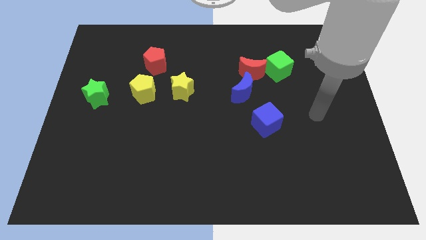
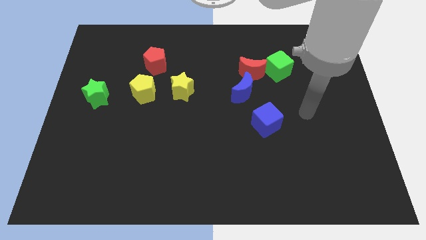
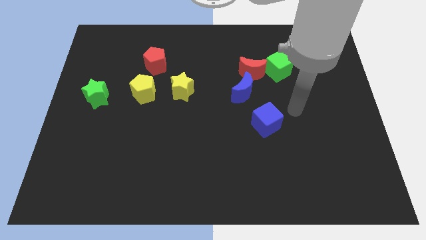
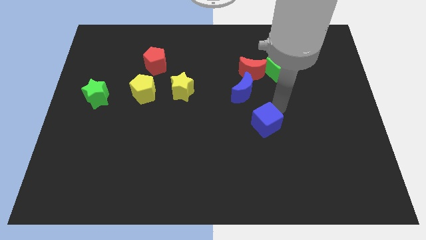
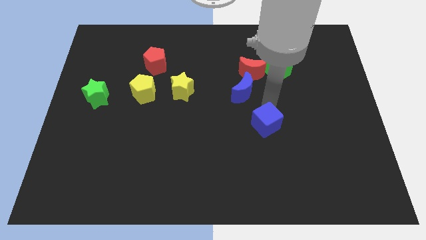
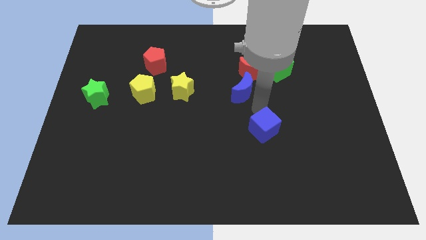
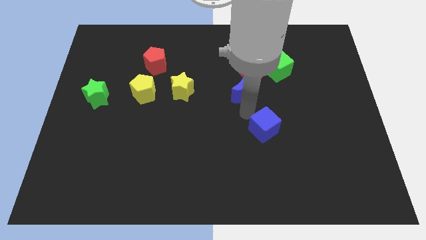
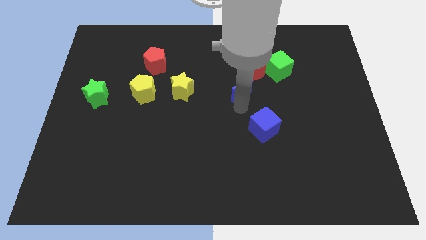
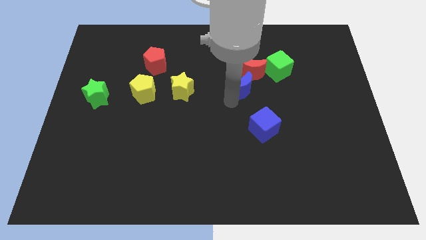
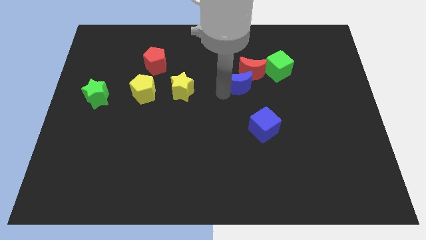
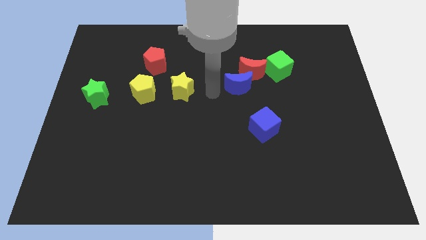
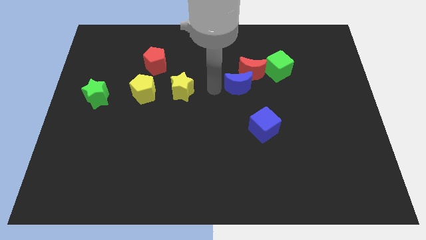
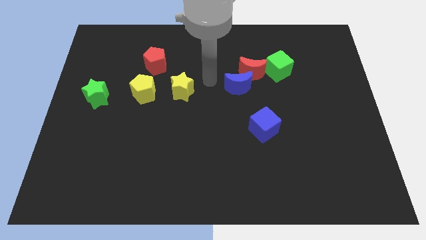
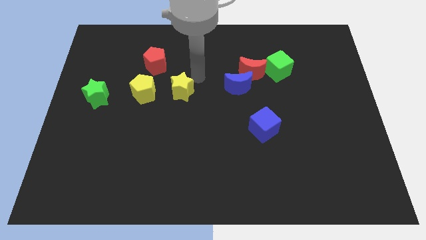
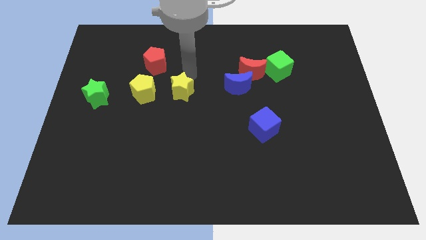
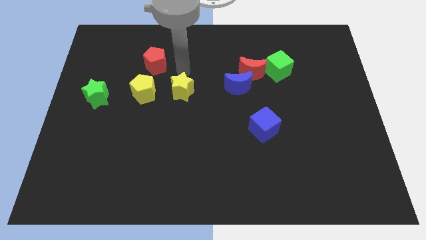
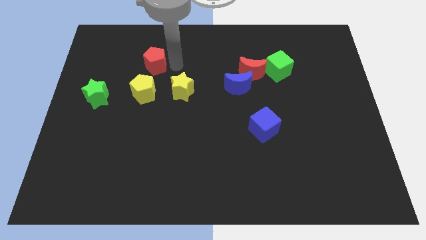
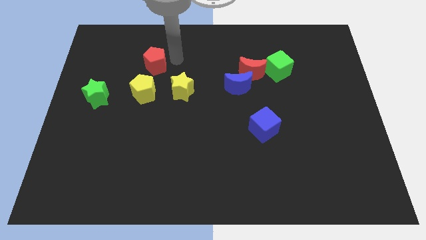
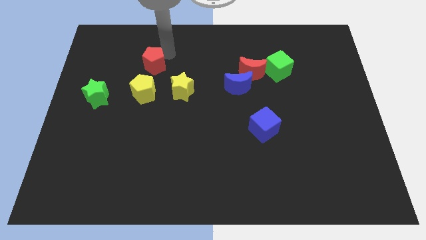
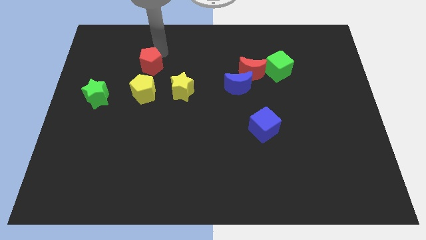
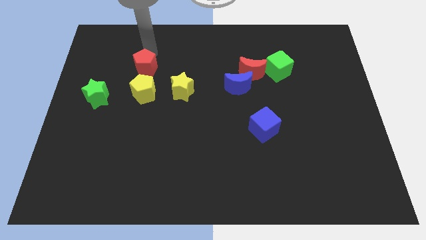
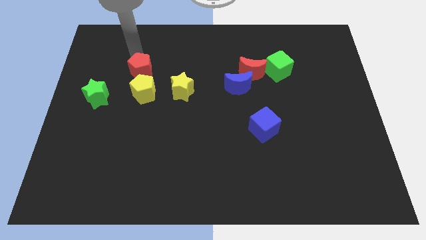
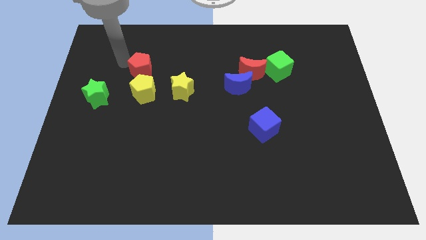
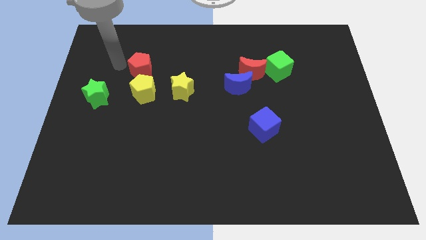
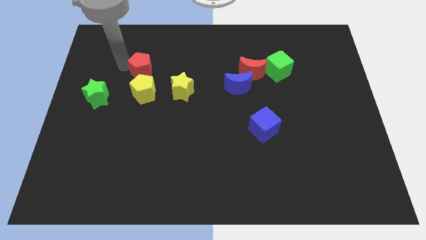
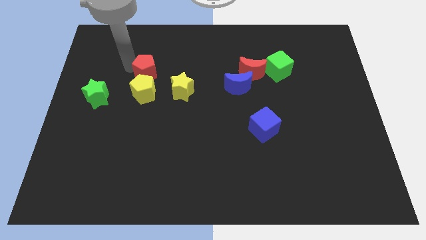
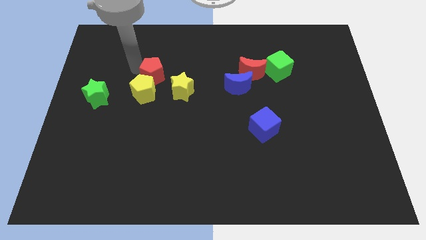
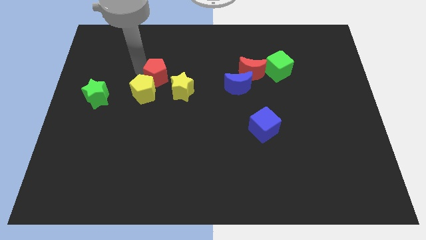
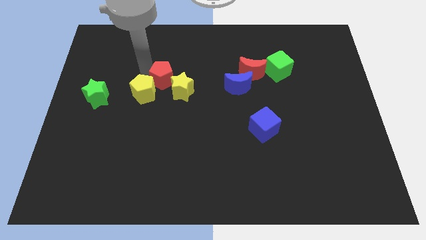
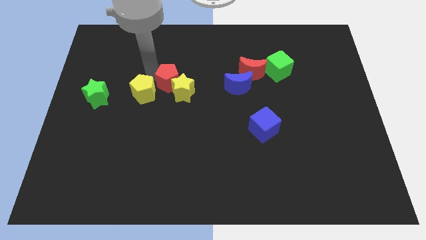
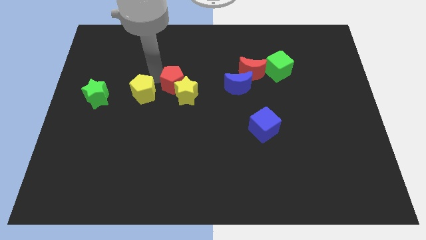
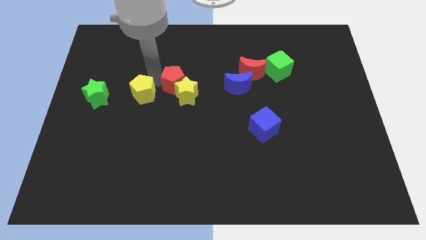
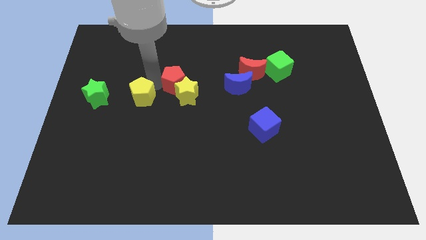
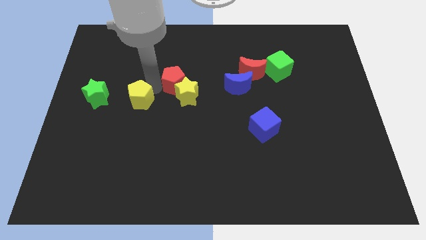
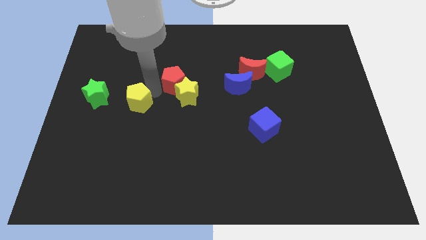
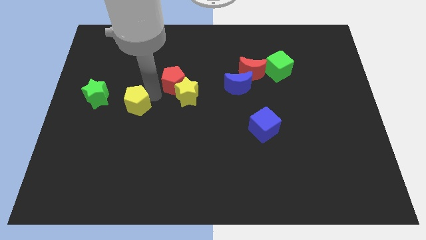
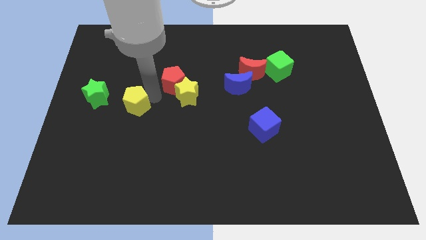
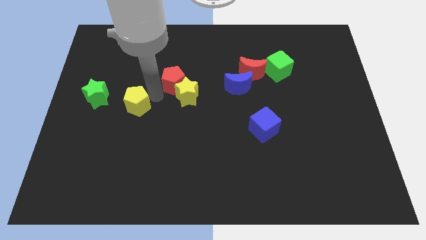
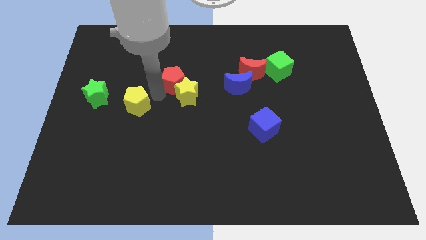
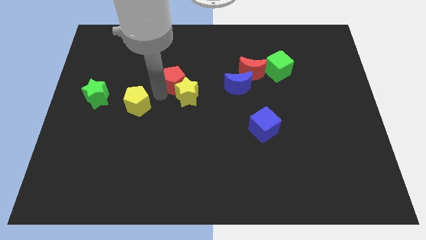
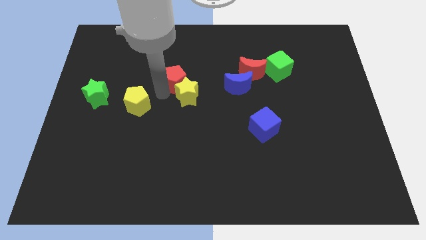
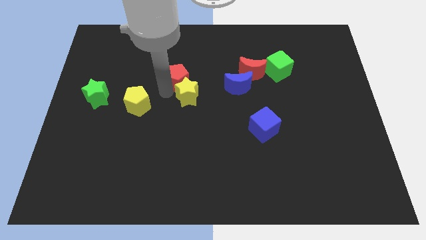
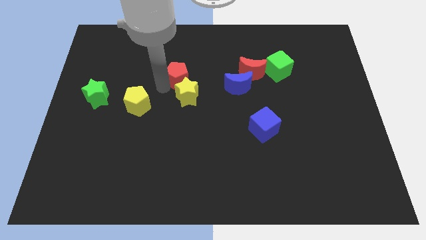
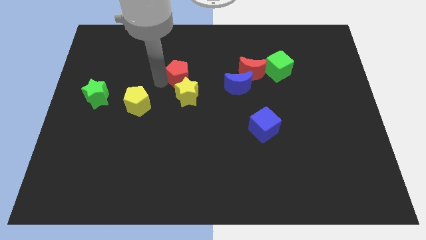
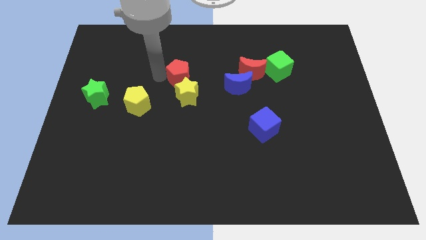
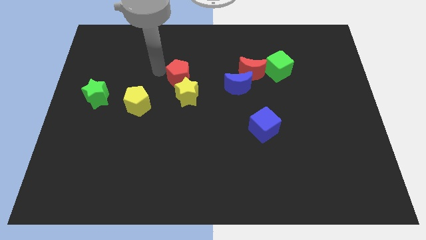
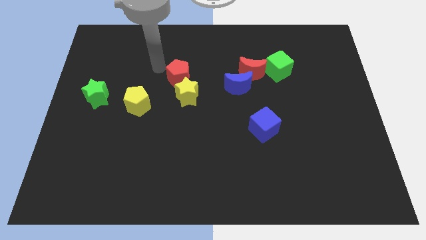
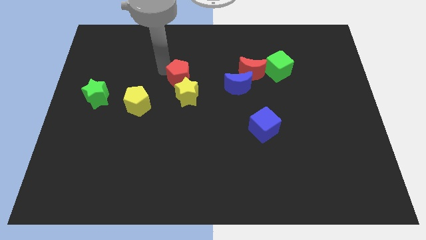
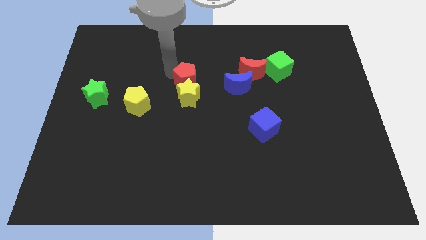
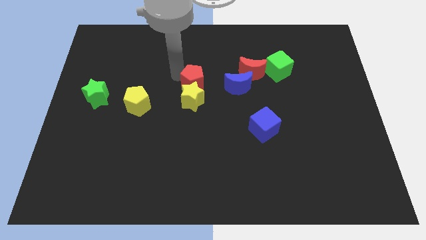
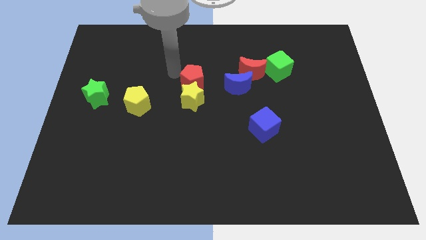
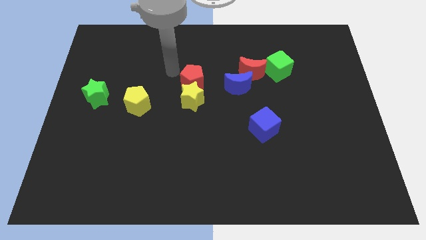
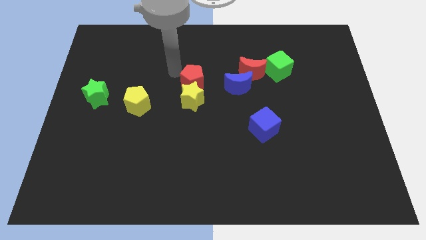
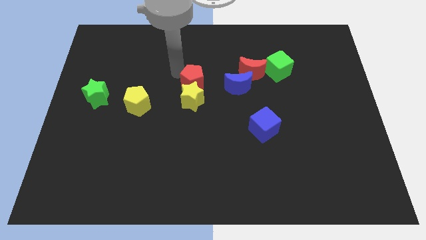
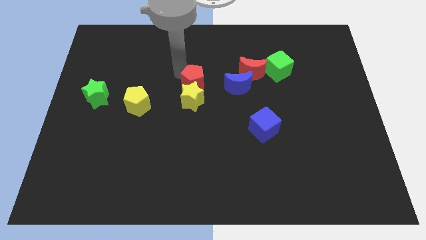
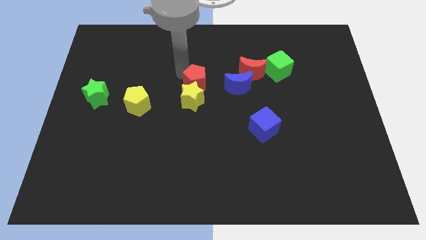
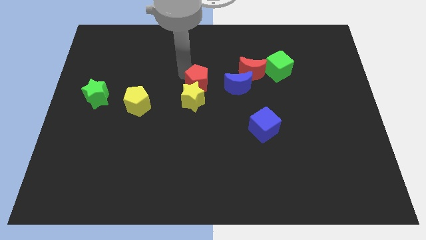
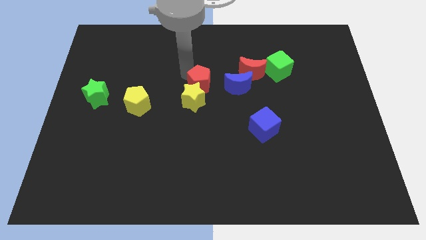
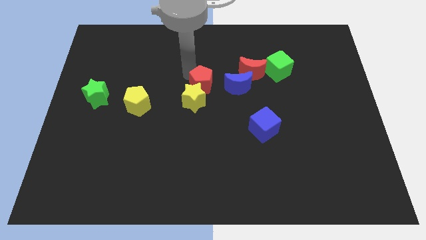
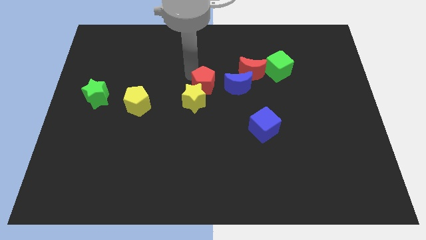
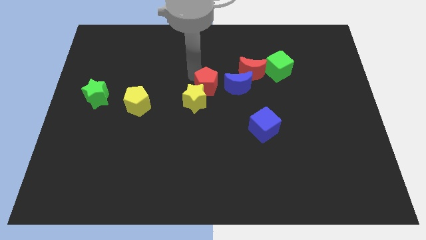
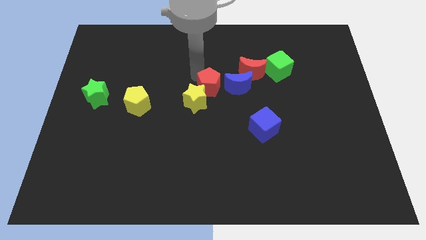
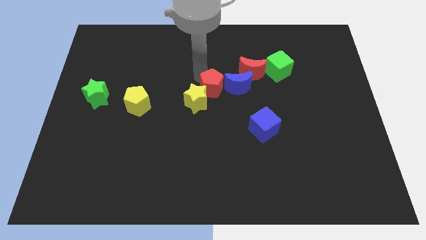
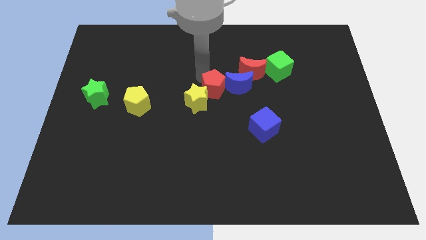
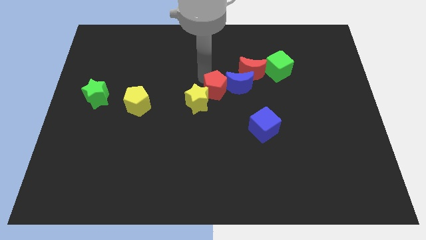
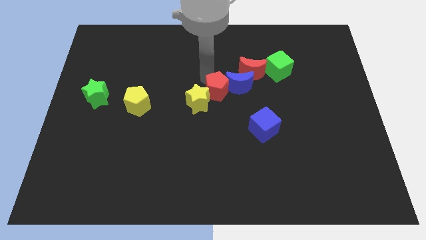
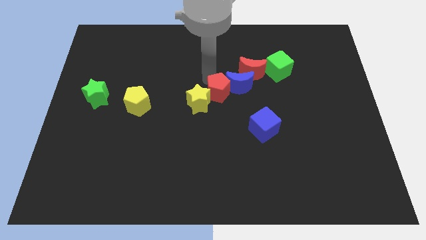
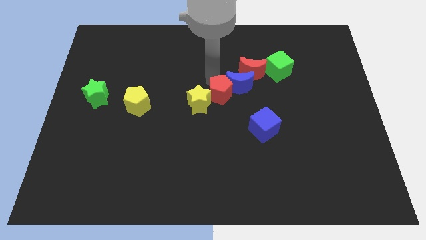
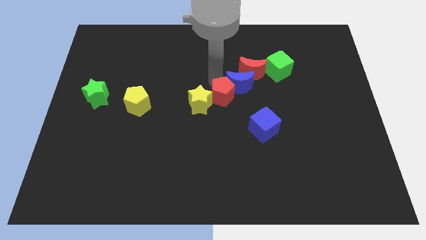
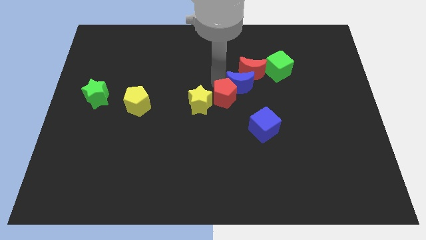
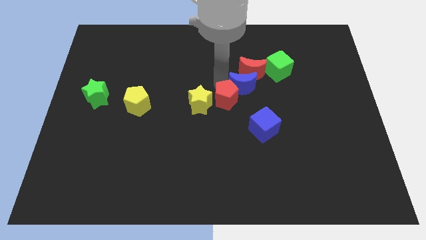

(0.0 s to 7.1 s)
slide the red pentagon diagonally downwards and to the right

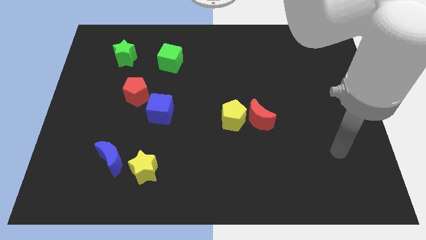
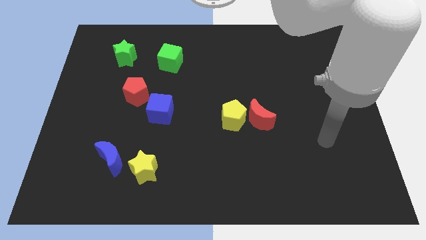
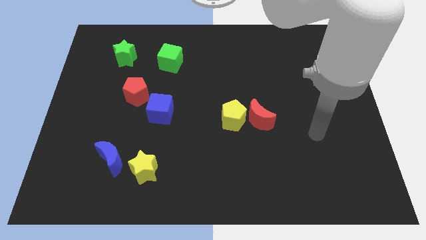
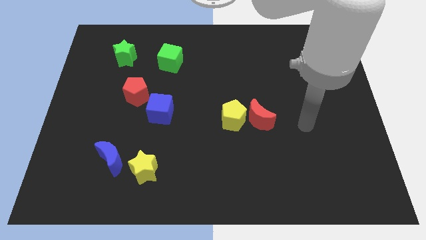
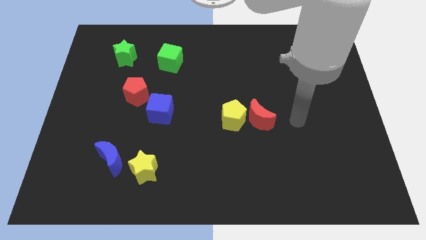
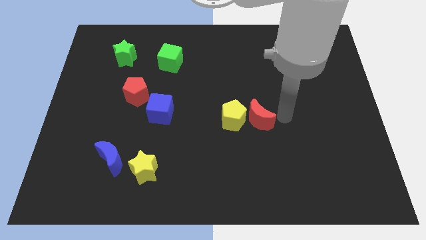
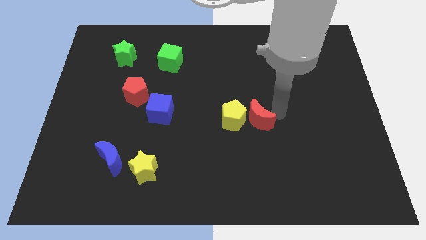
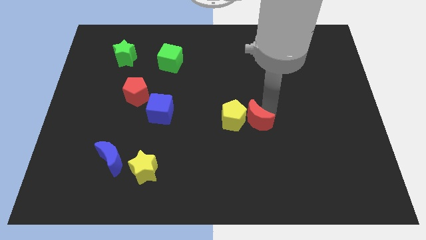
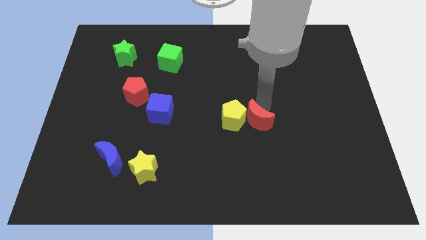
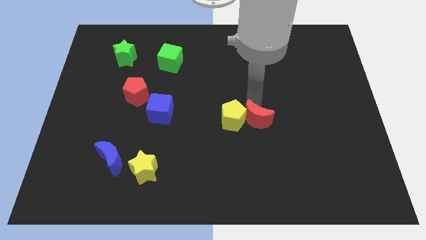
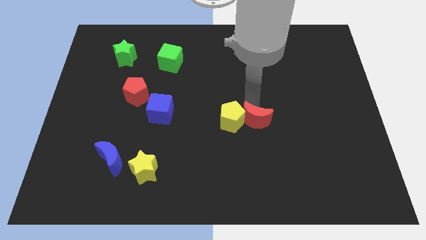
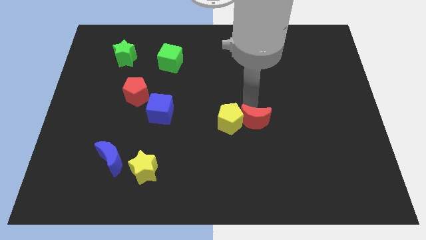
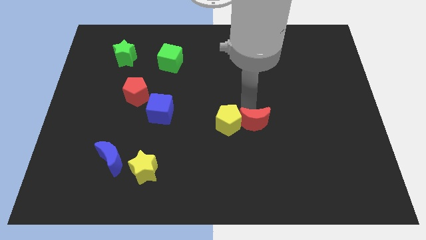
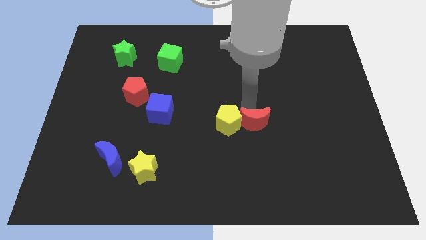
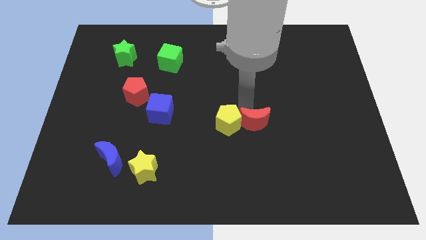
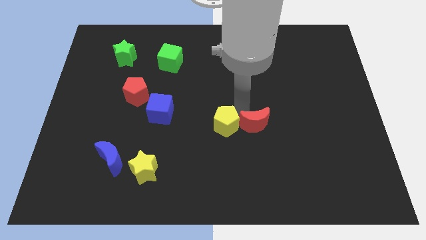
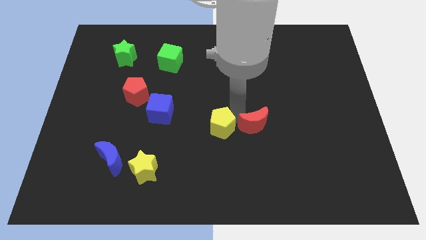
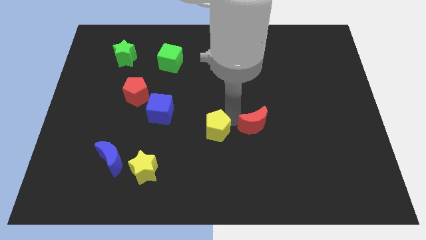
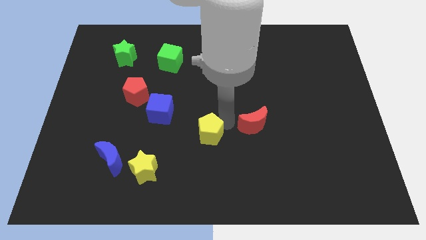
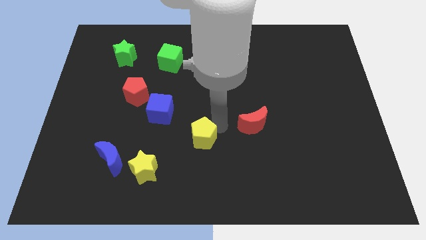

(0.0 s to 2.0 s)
slightly move the yellow pentagon diagonally down and to the left
